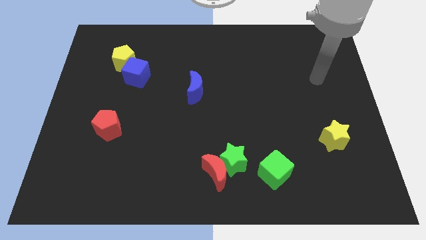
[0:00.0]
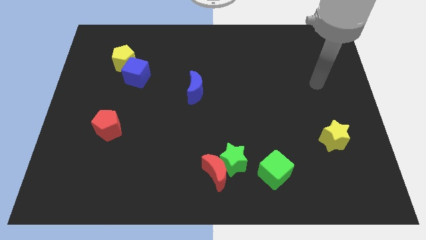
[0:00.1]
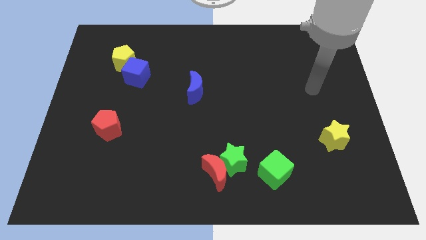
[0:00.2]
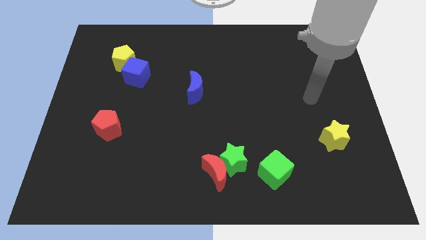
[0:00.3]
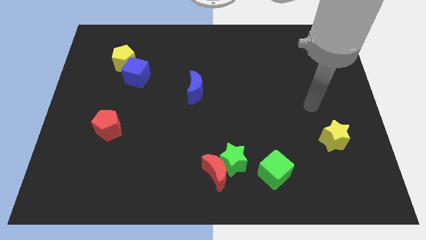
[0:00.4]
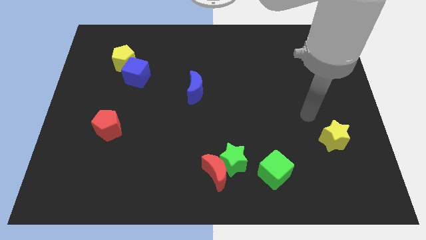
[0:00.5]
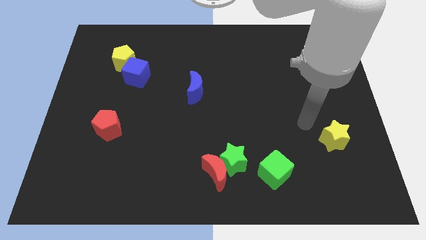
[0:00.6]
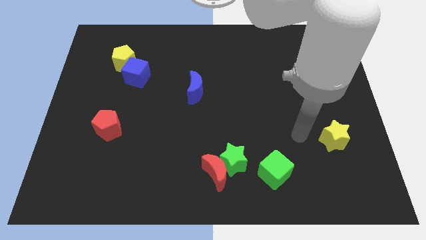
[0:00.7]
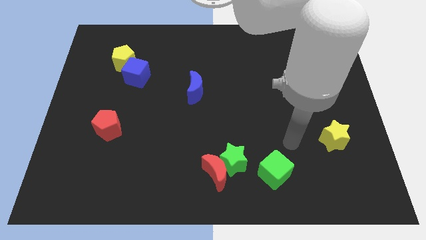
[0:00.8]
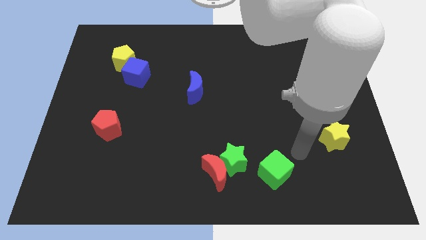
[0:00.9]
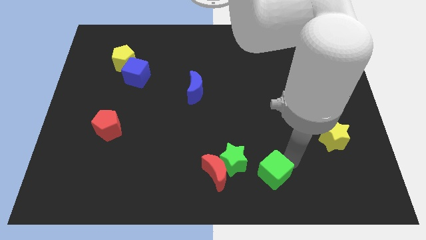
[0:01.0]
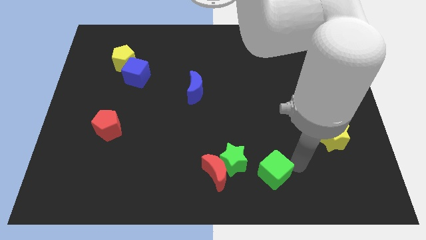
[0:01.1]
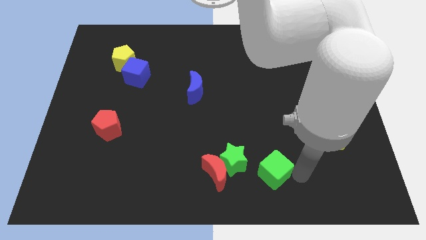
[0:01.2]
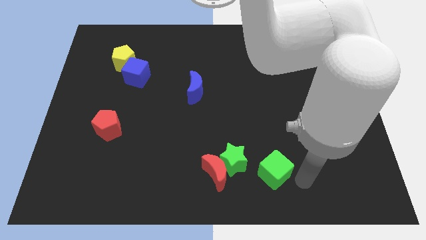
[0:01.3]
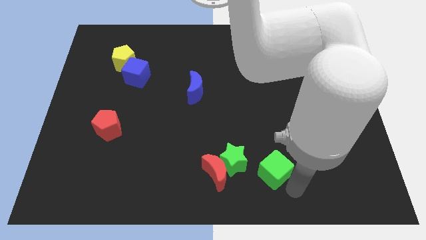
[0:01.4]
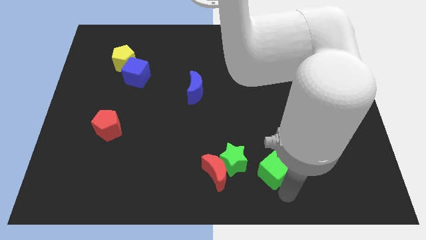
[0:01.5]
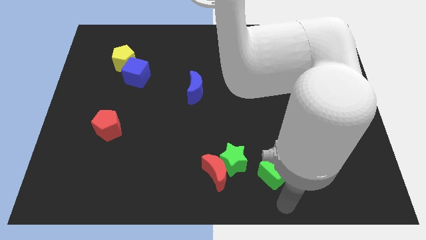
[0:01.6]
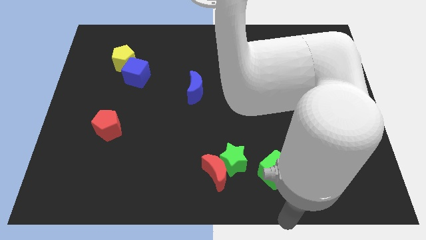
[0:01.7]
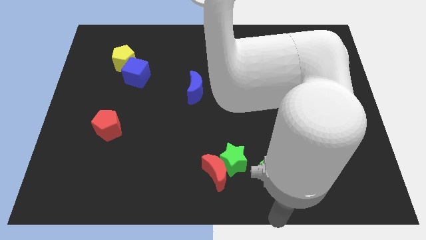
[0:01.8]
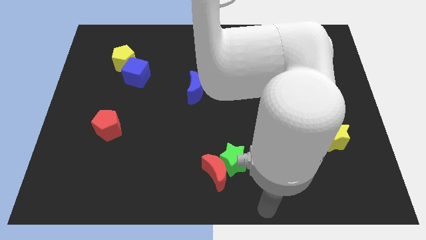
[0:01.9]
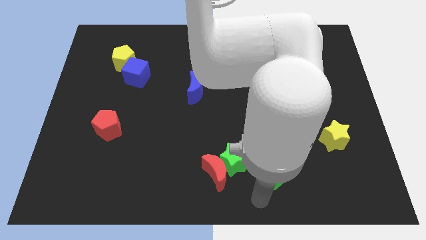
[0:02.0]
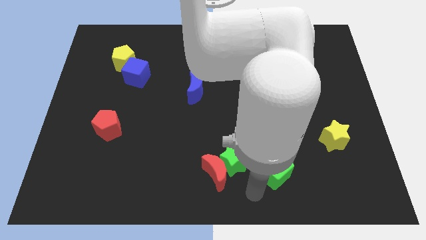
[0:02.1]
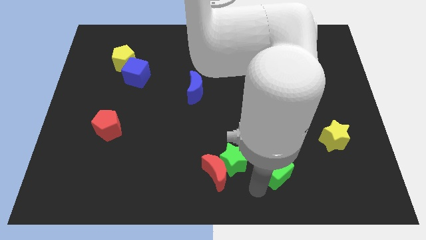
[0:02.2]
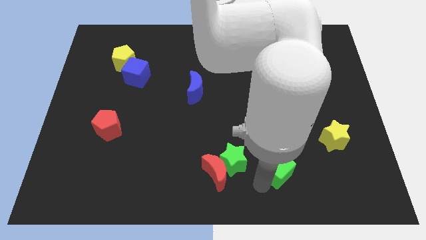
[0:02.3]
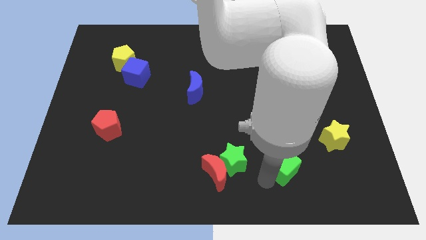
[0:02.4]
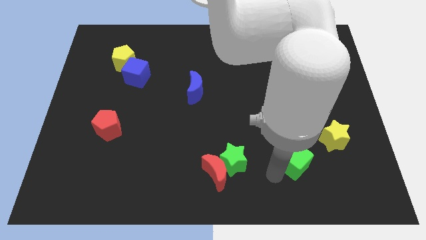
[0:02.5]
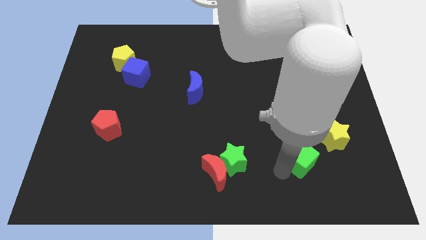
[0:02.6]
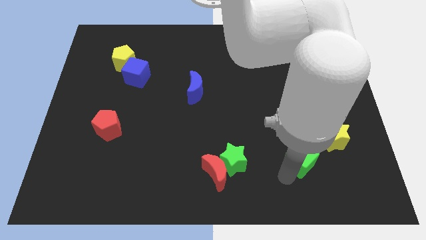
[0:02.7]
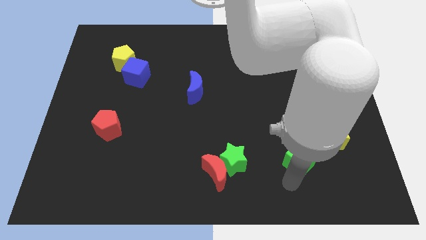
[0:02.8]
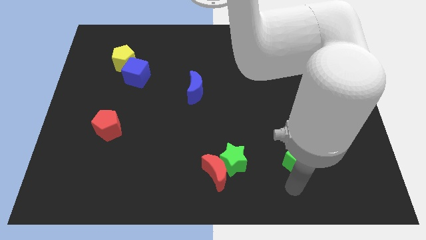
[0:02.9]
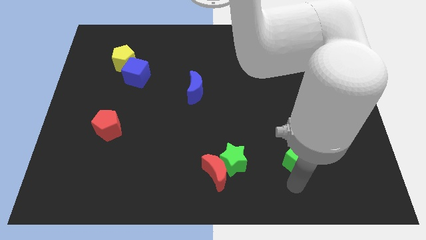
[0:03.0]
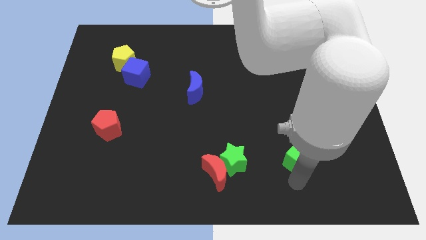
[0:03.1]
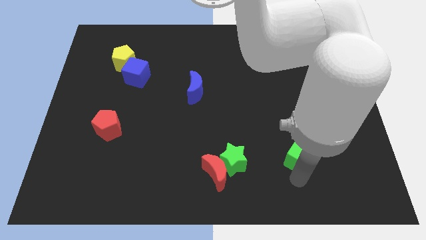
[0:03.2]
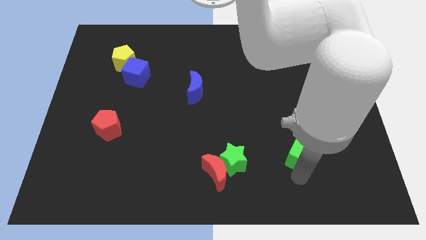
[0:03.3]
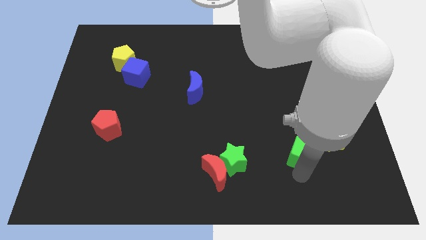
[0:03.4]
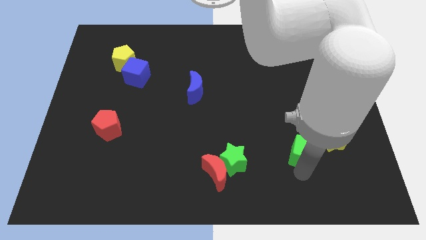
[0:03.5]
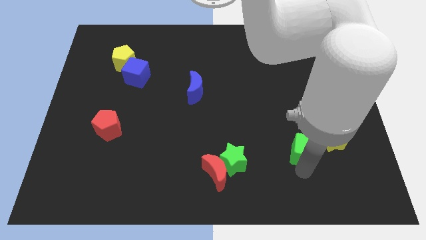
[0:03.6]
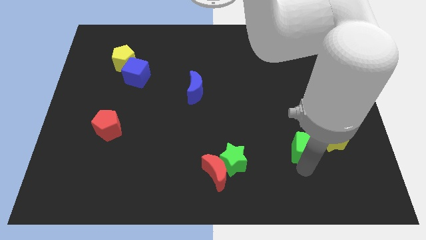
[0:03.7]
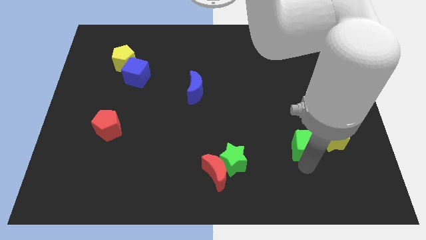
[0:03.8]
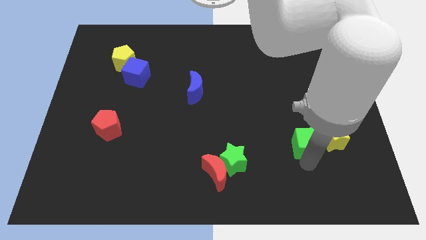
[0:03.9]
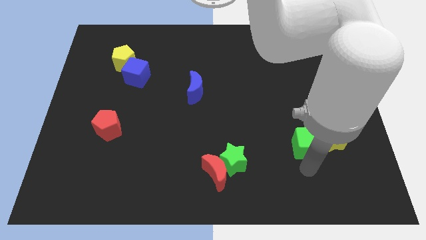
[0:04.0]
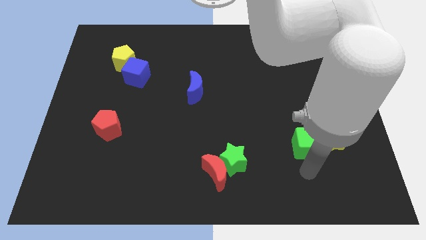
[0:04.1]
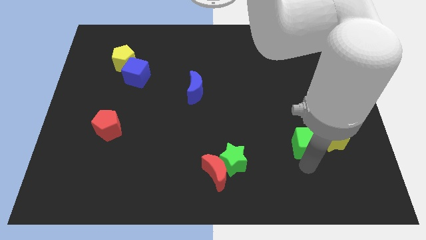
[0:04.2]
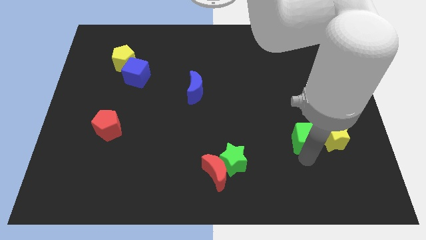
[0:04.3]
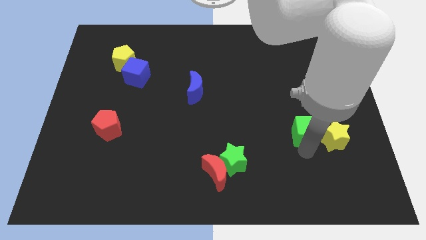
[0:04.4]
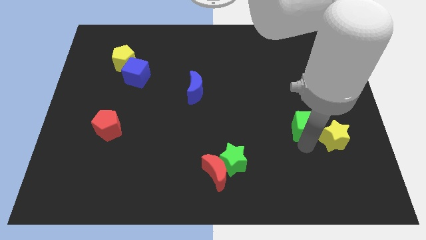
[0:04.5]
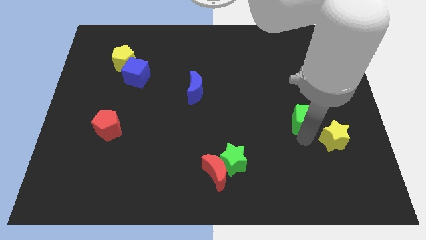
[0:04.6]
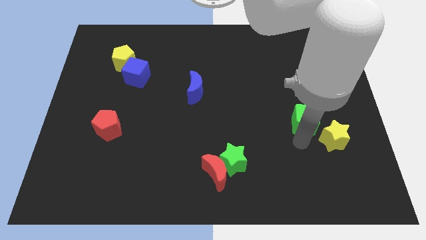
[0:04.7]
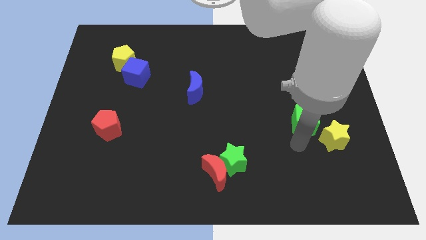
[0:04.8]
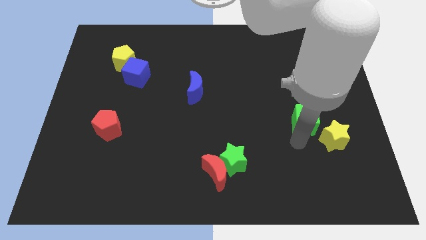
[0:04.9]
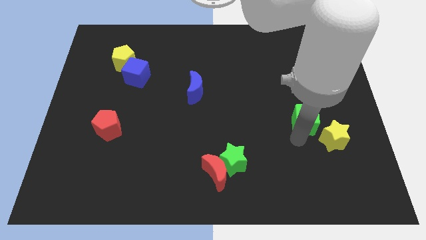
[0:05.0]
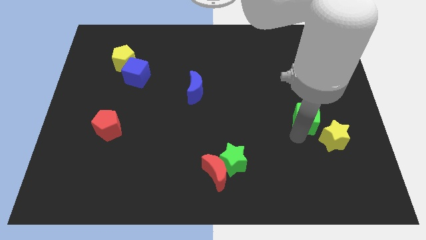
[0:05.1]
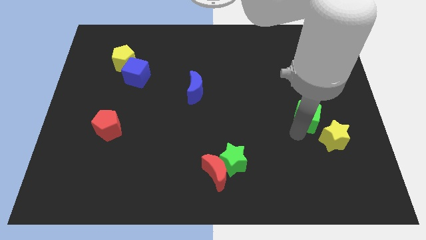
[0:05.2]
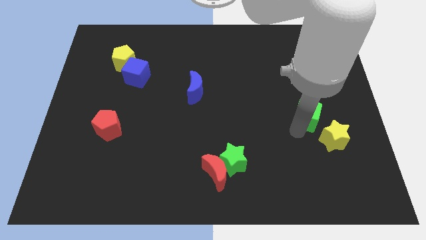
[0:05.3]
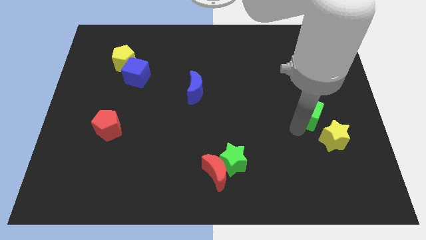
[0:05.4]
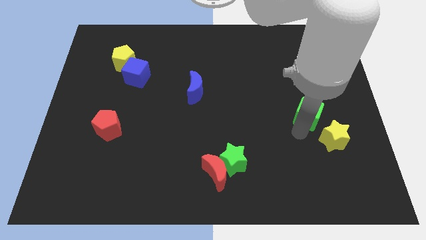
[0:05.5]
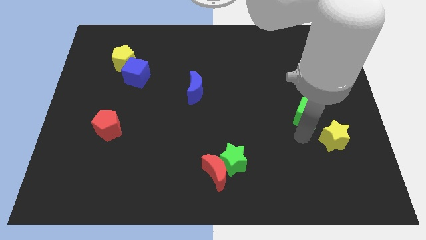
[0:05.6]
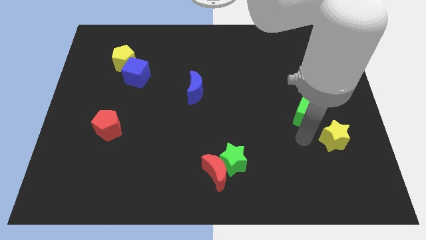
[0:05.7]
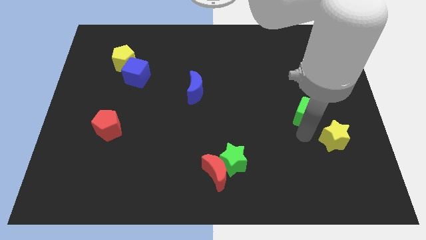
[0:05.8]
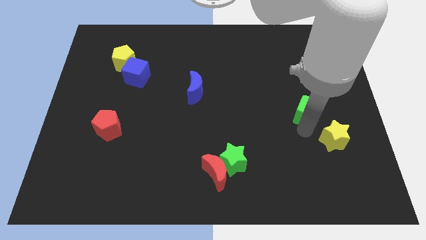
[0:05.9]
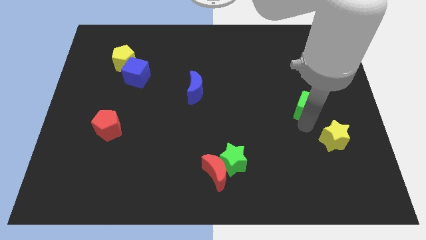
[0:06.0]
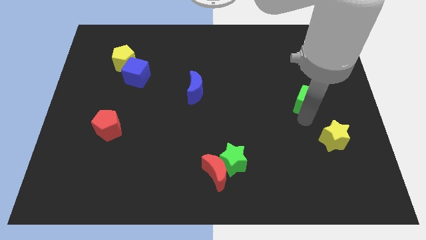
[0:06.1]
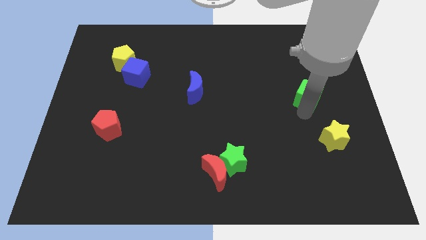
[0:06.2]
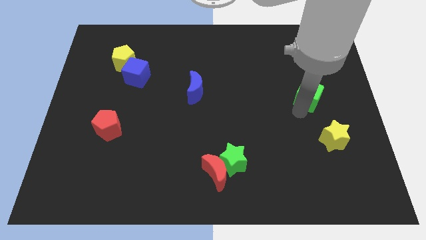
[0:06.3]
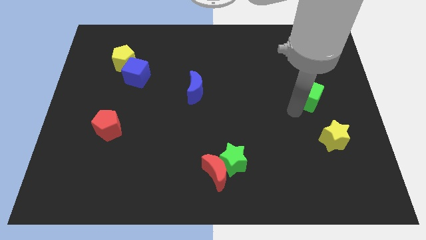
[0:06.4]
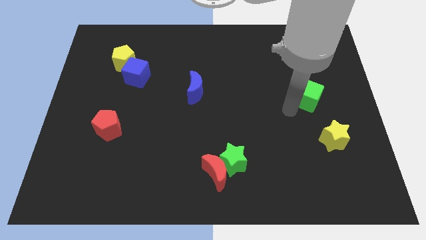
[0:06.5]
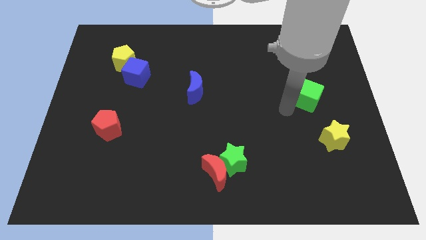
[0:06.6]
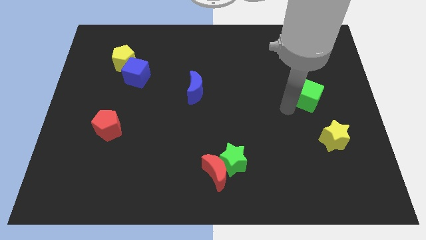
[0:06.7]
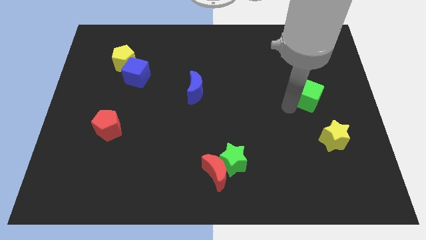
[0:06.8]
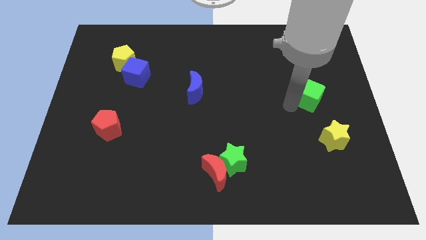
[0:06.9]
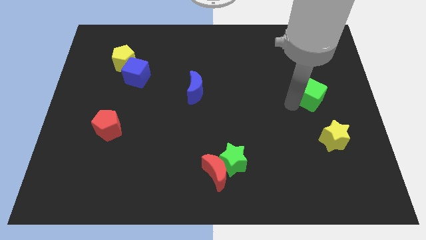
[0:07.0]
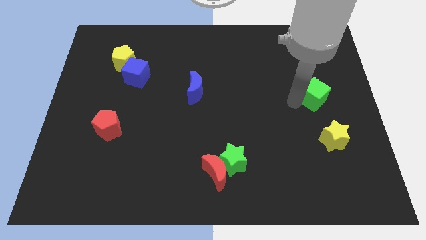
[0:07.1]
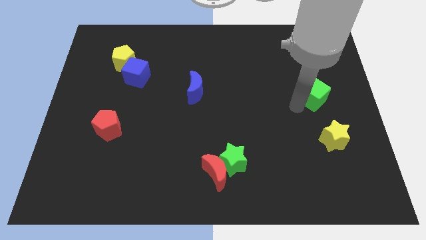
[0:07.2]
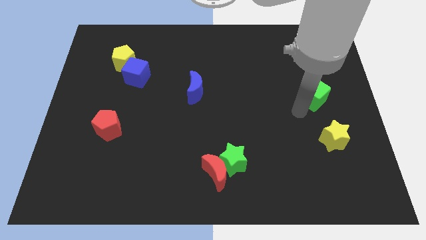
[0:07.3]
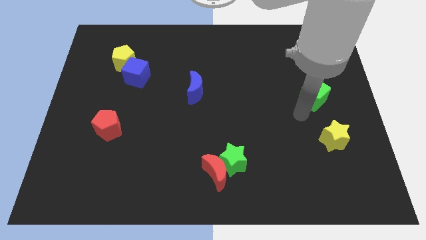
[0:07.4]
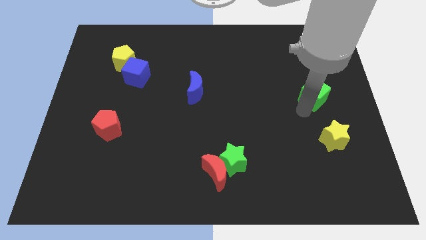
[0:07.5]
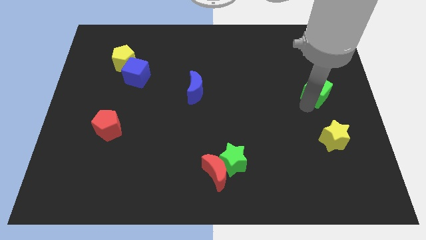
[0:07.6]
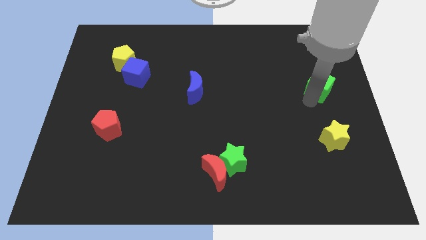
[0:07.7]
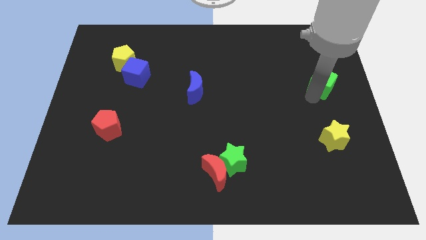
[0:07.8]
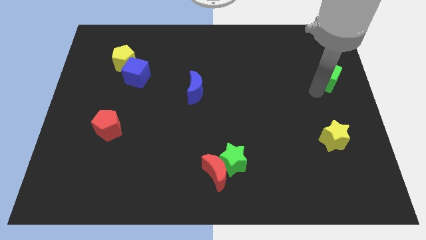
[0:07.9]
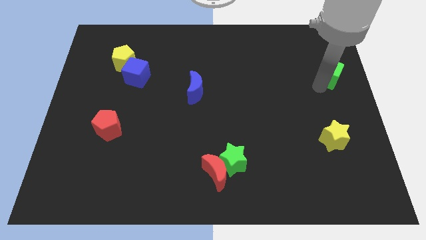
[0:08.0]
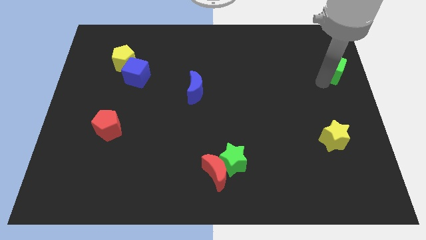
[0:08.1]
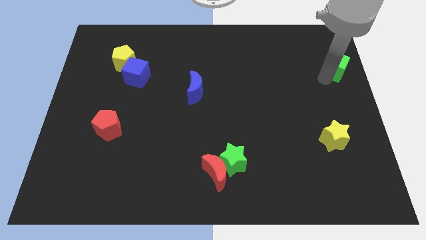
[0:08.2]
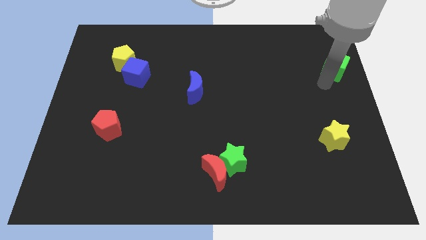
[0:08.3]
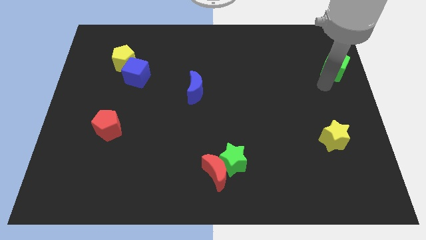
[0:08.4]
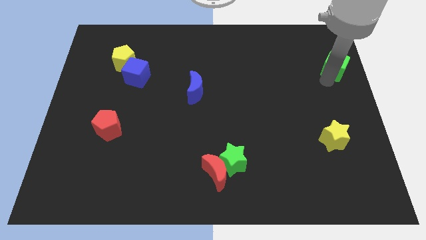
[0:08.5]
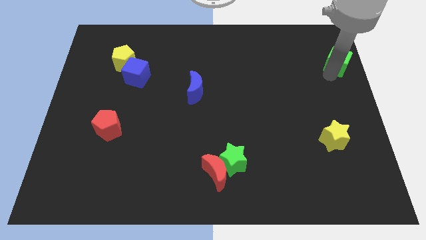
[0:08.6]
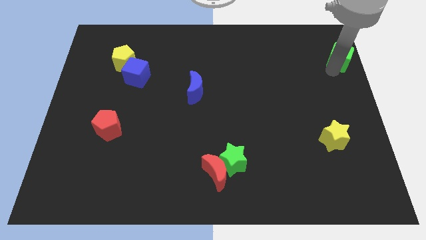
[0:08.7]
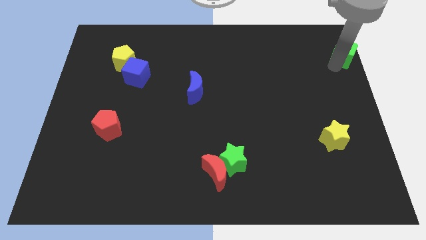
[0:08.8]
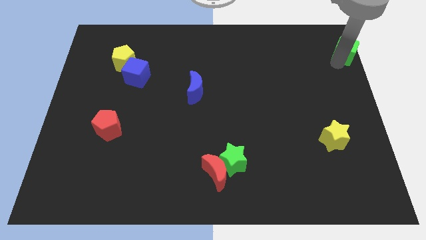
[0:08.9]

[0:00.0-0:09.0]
put the green cube to the upper right corner
